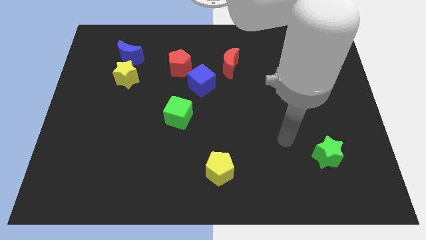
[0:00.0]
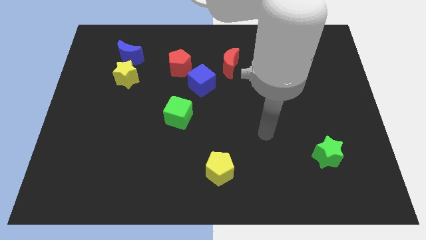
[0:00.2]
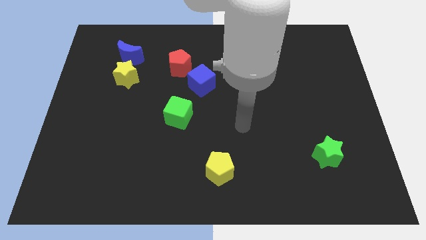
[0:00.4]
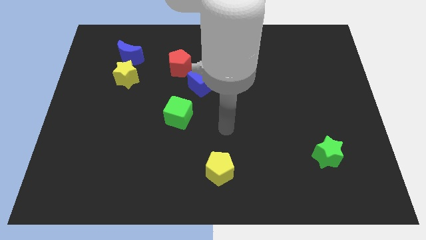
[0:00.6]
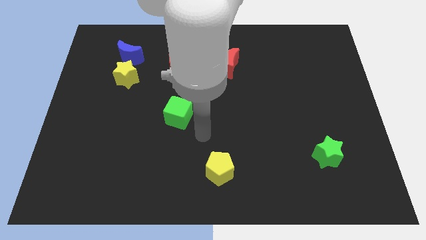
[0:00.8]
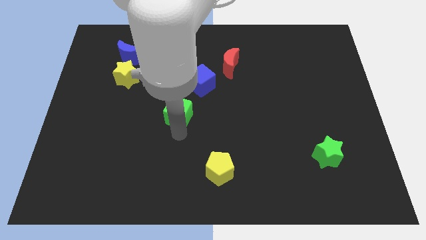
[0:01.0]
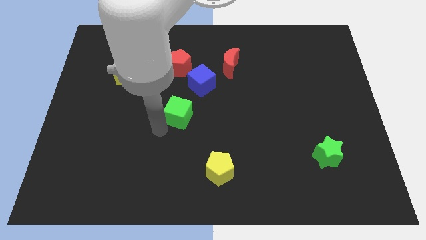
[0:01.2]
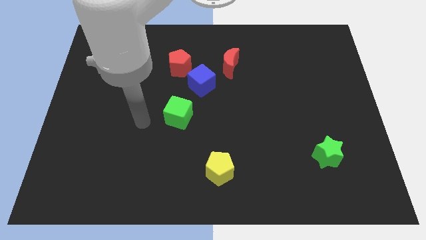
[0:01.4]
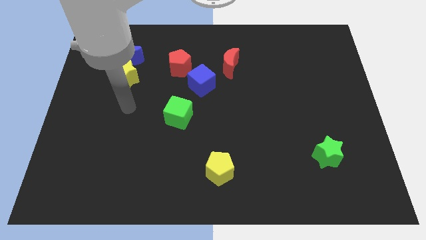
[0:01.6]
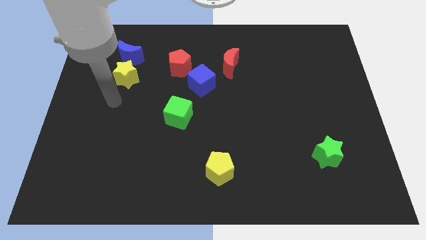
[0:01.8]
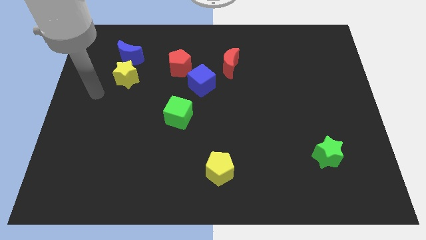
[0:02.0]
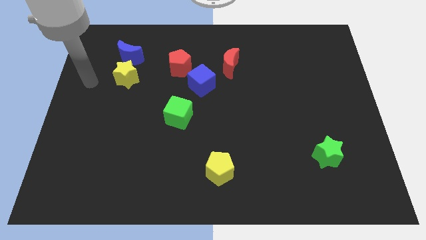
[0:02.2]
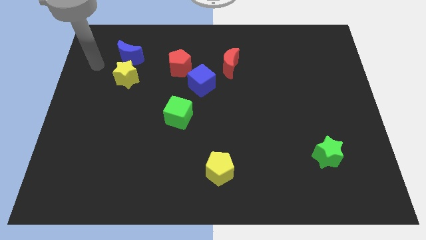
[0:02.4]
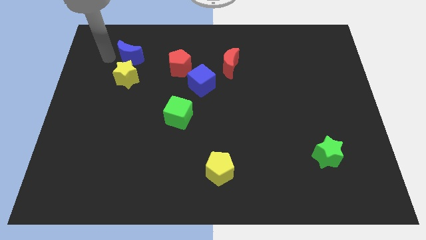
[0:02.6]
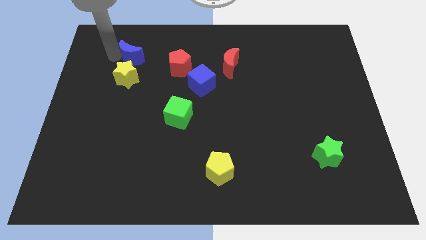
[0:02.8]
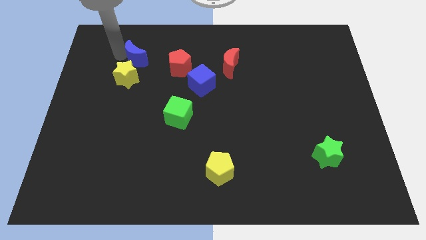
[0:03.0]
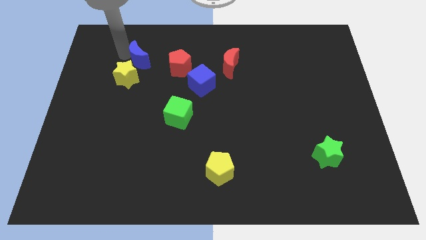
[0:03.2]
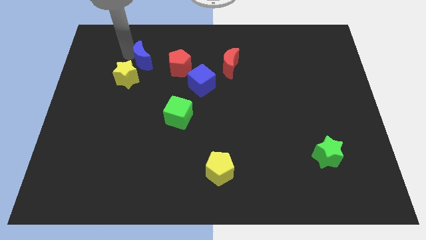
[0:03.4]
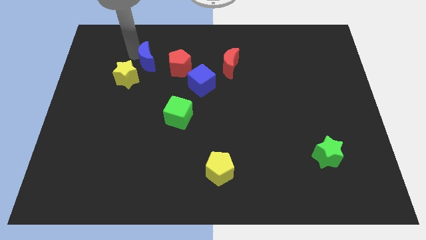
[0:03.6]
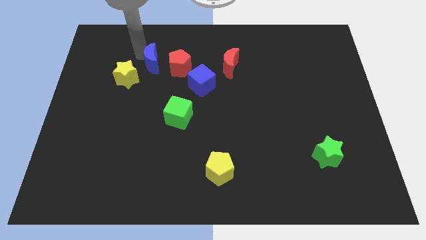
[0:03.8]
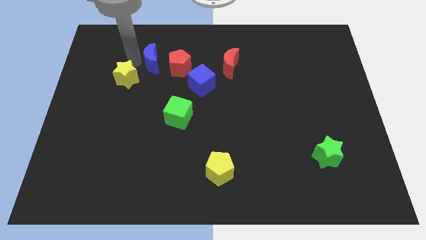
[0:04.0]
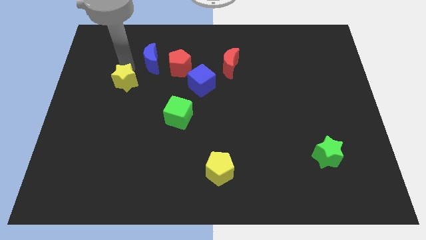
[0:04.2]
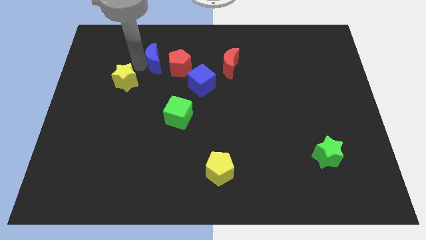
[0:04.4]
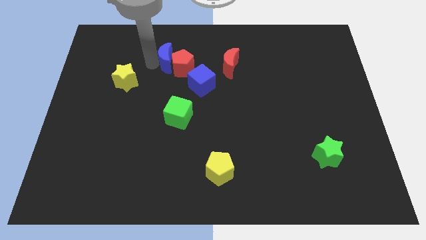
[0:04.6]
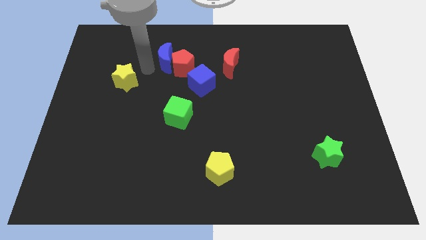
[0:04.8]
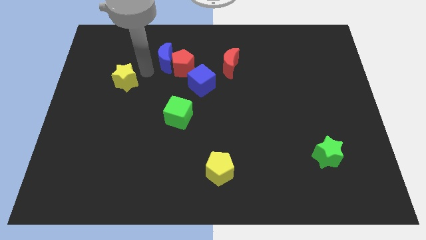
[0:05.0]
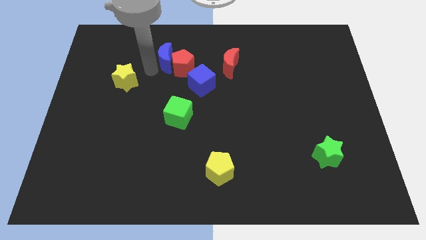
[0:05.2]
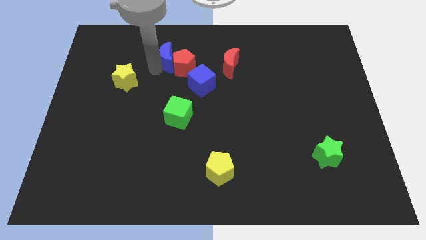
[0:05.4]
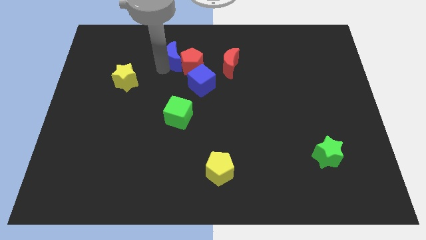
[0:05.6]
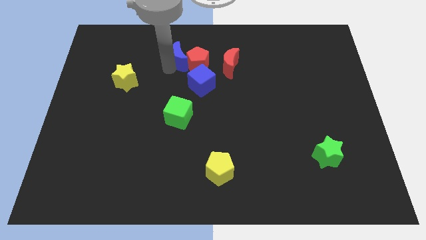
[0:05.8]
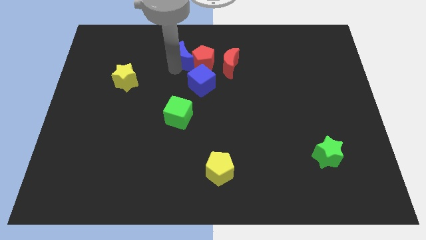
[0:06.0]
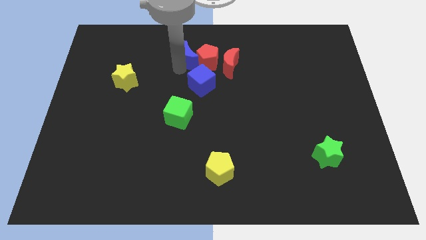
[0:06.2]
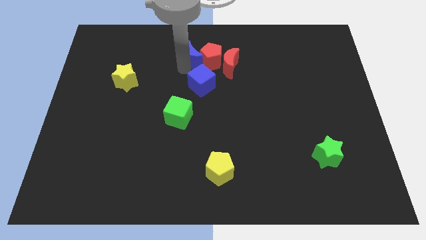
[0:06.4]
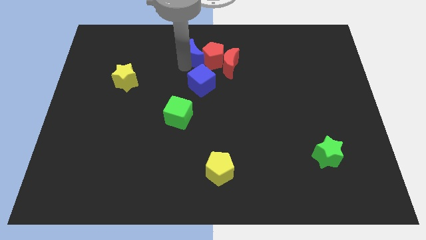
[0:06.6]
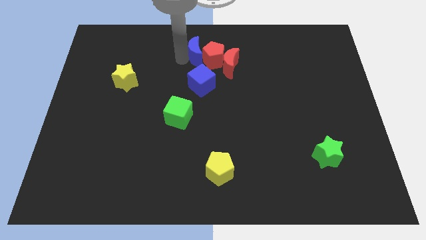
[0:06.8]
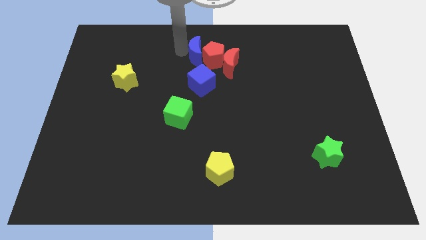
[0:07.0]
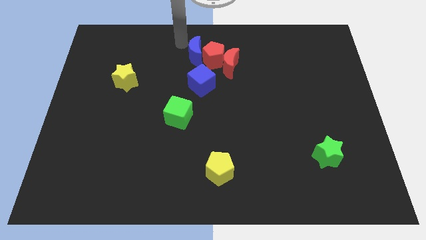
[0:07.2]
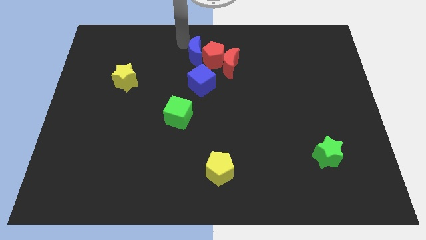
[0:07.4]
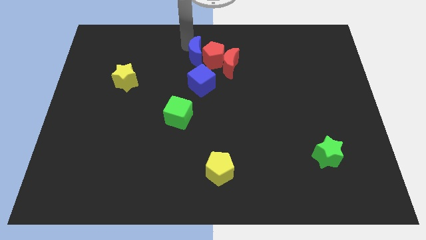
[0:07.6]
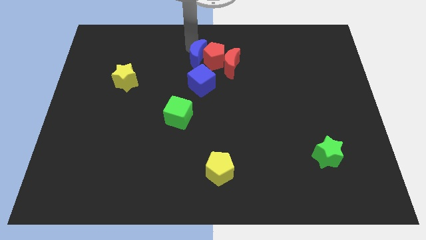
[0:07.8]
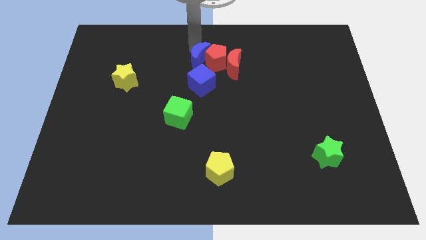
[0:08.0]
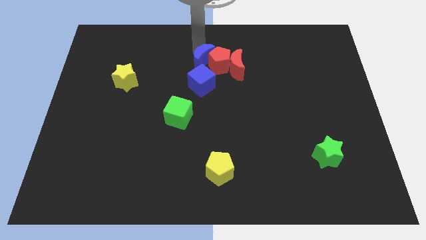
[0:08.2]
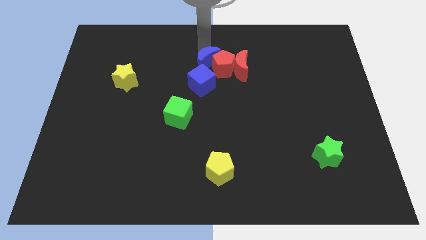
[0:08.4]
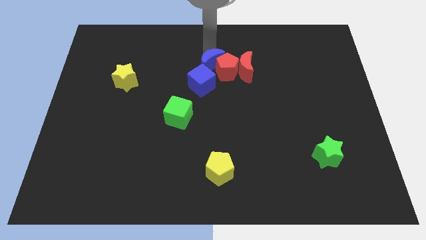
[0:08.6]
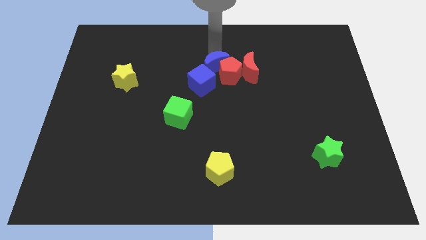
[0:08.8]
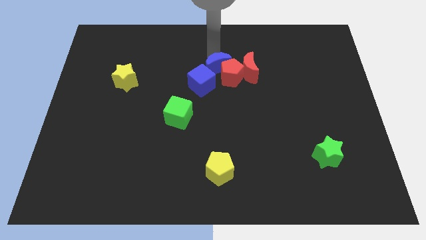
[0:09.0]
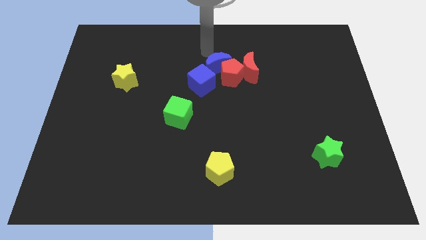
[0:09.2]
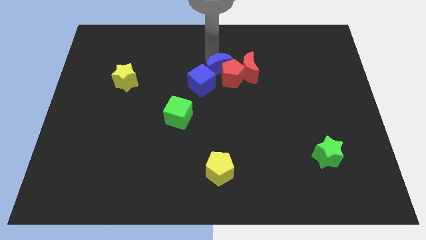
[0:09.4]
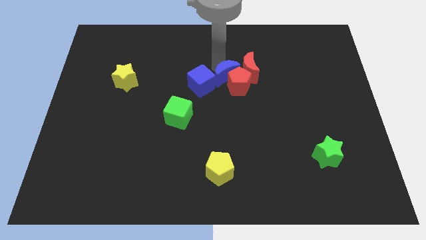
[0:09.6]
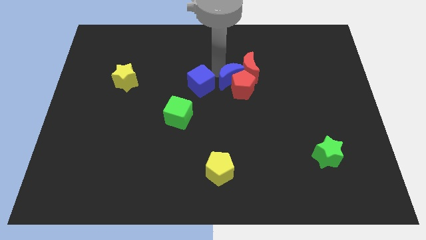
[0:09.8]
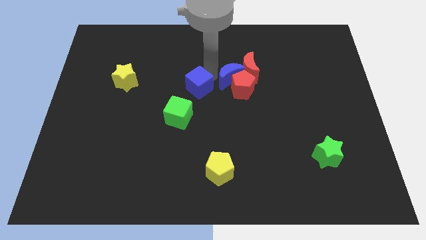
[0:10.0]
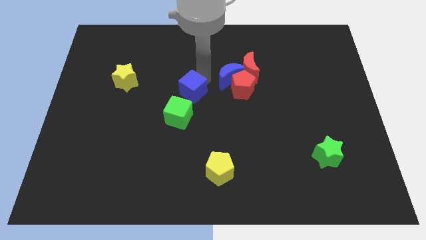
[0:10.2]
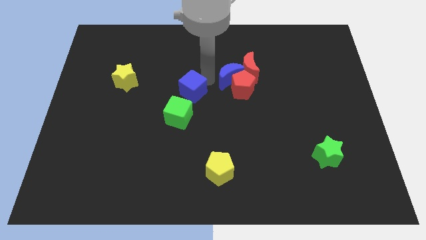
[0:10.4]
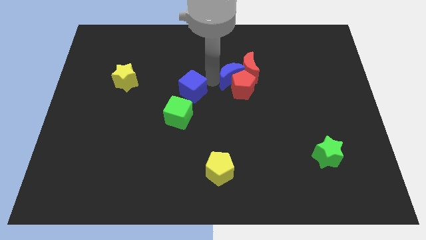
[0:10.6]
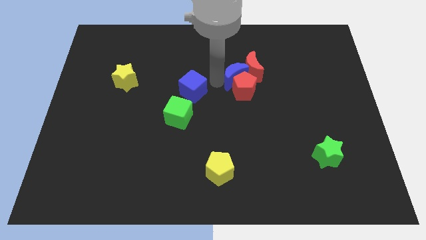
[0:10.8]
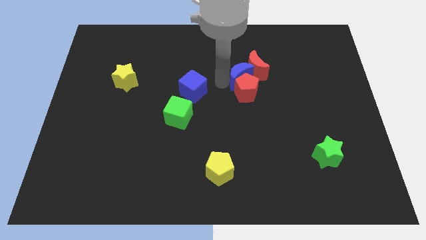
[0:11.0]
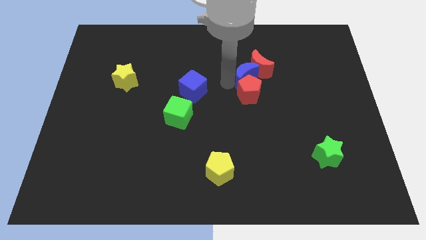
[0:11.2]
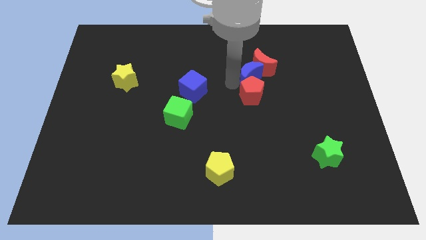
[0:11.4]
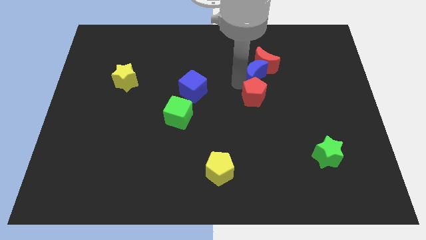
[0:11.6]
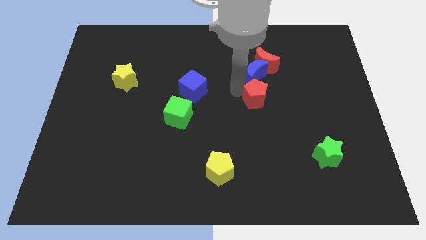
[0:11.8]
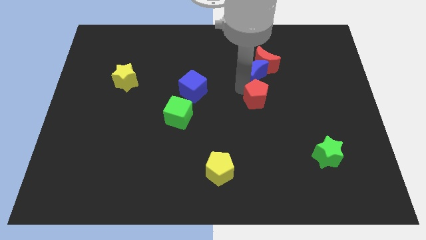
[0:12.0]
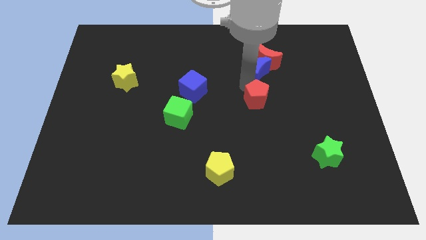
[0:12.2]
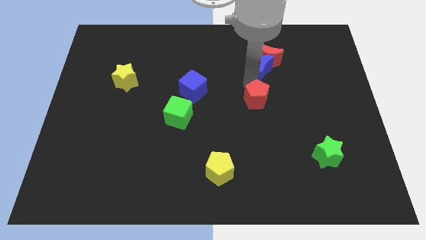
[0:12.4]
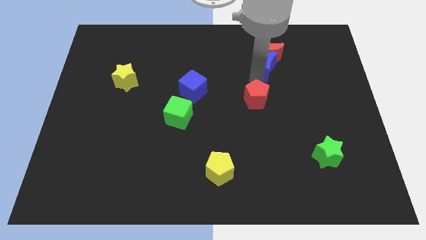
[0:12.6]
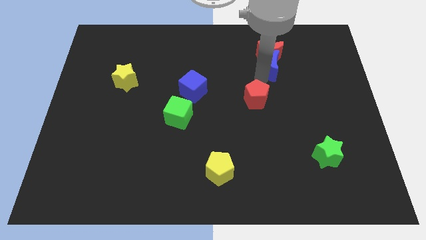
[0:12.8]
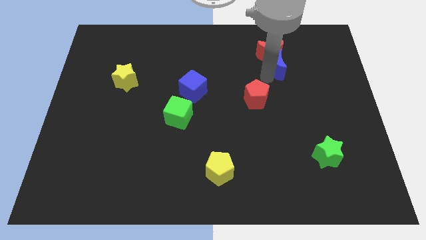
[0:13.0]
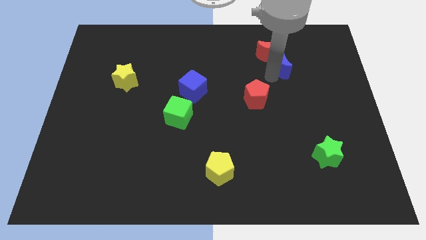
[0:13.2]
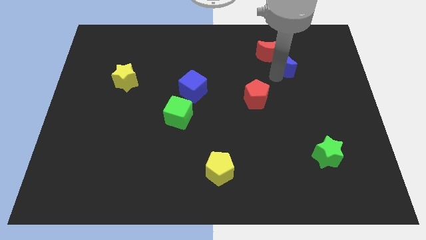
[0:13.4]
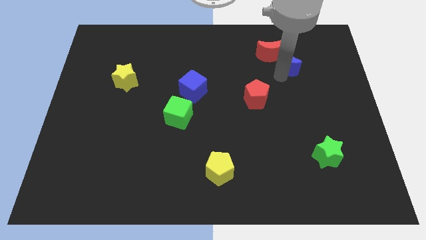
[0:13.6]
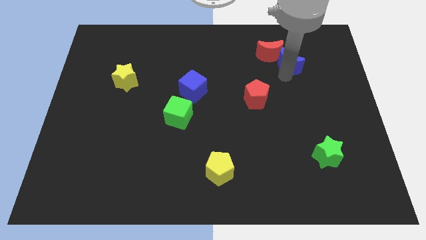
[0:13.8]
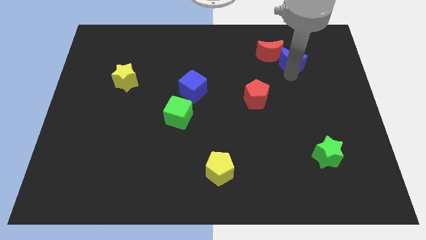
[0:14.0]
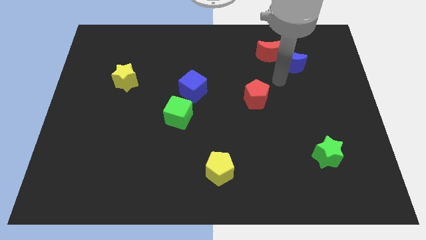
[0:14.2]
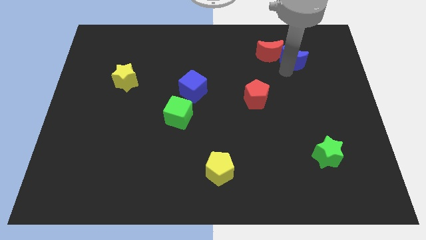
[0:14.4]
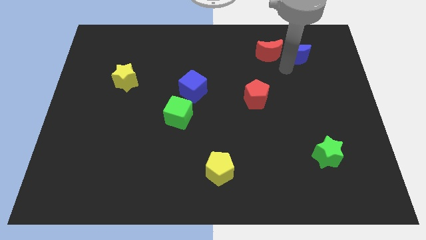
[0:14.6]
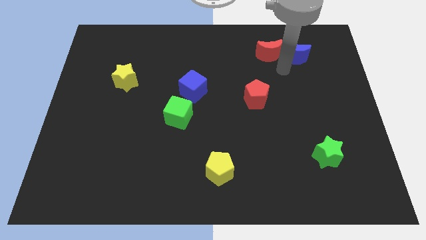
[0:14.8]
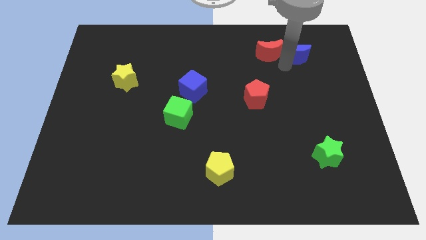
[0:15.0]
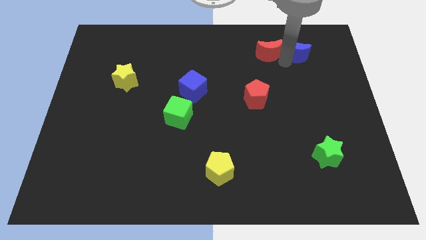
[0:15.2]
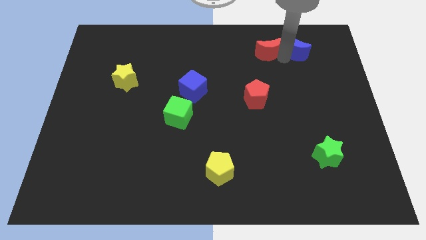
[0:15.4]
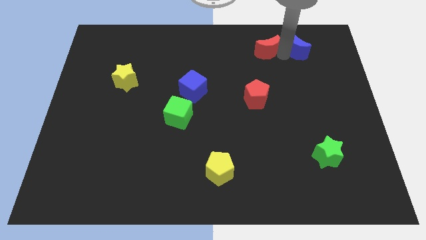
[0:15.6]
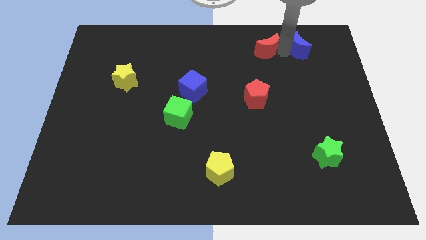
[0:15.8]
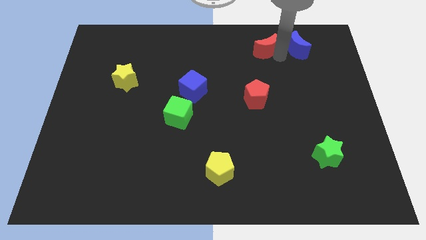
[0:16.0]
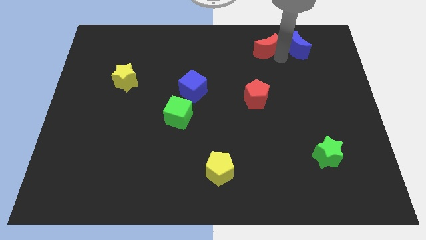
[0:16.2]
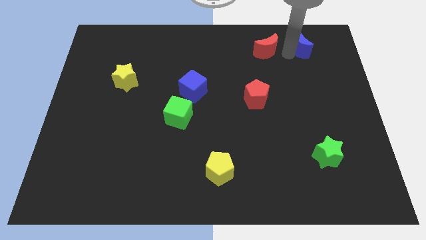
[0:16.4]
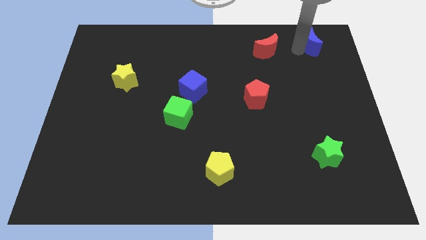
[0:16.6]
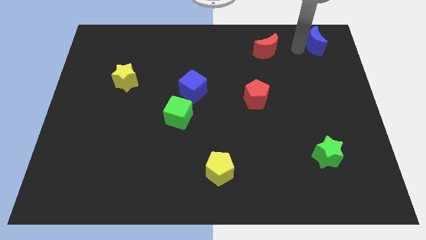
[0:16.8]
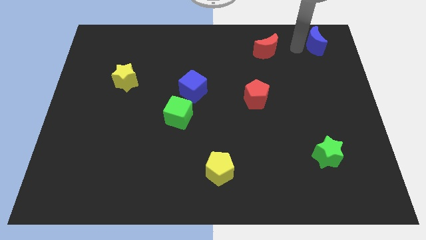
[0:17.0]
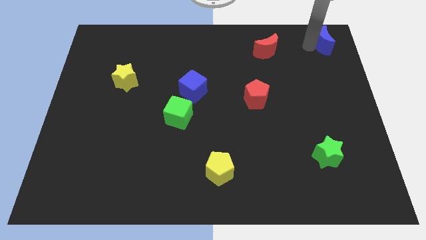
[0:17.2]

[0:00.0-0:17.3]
slide the blue moon to the top right
